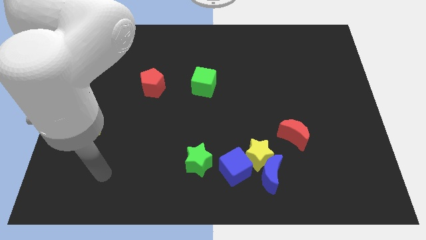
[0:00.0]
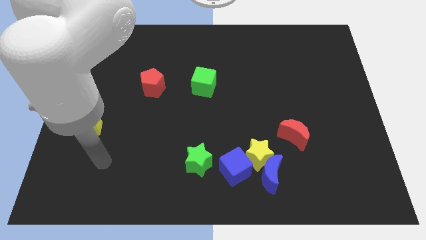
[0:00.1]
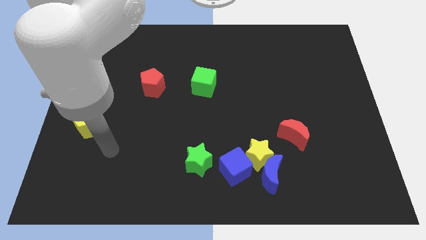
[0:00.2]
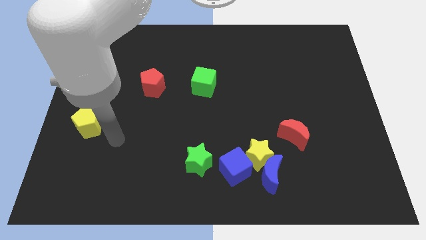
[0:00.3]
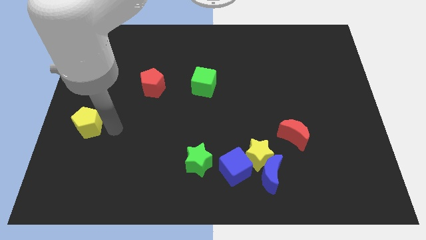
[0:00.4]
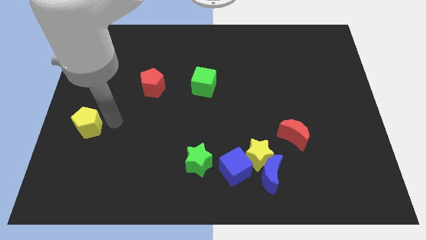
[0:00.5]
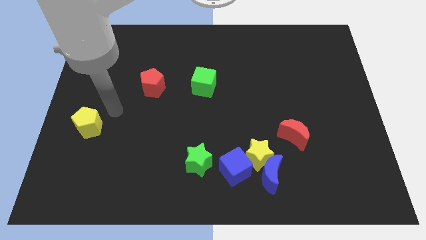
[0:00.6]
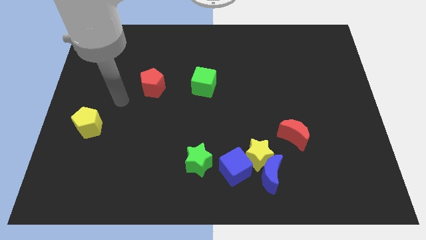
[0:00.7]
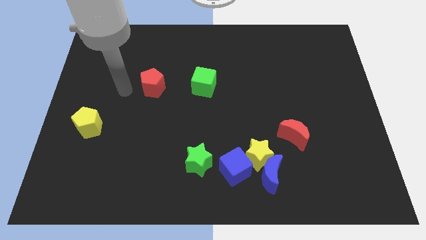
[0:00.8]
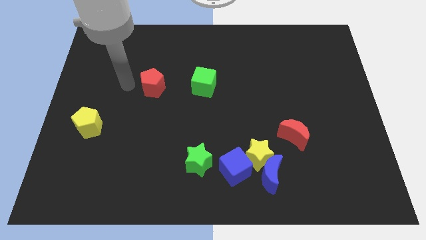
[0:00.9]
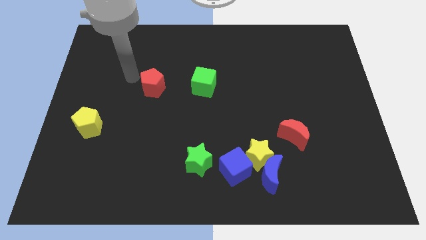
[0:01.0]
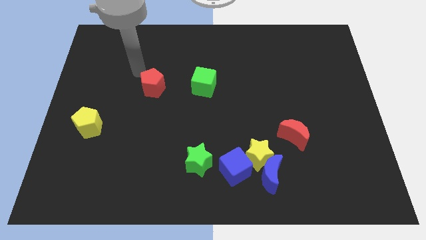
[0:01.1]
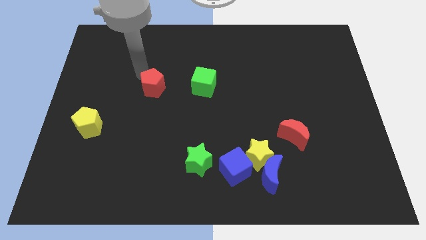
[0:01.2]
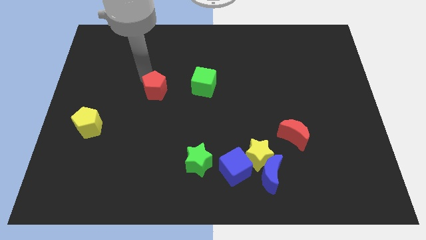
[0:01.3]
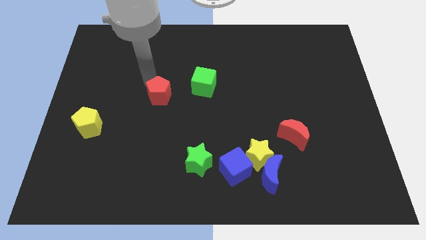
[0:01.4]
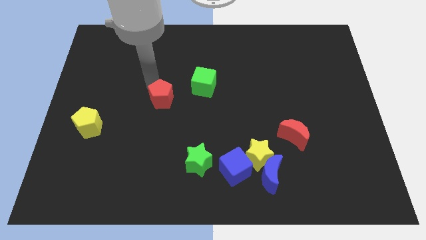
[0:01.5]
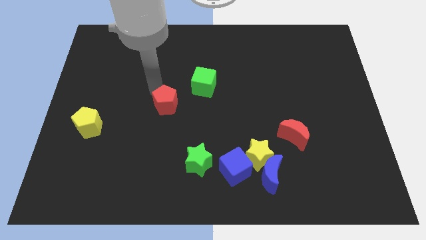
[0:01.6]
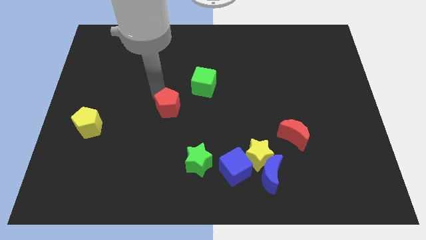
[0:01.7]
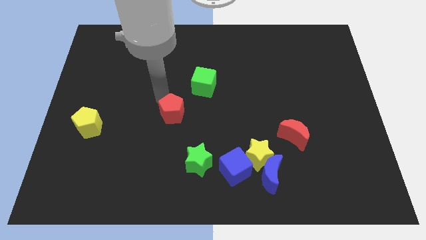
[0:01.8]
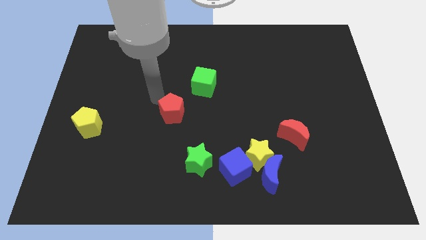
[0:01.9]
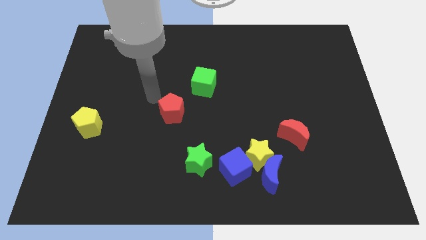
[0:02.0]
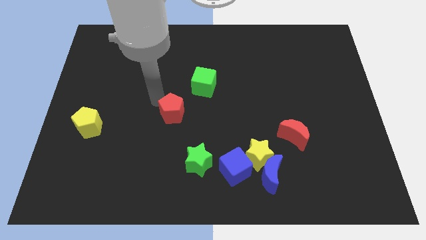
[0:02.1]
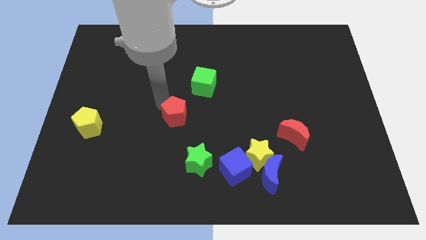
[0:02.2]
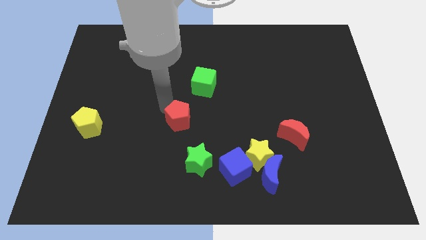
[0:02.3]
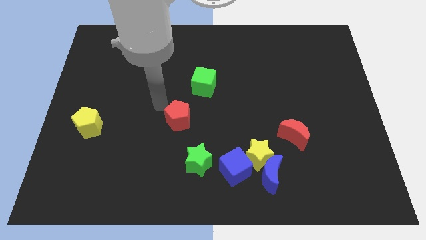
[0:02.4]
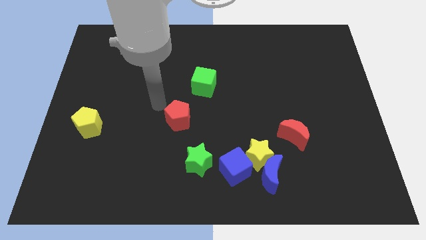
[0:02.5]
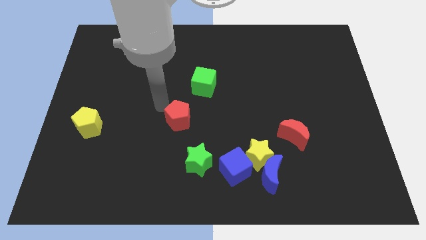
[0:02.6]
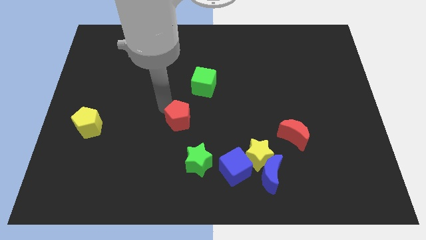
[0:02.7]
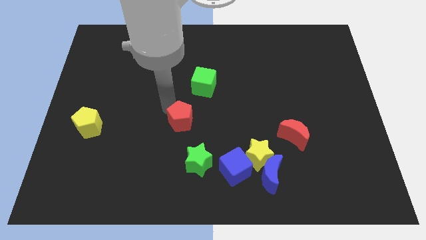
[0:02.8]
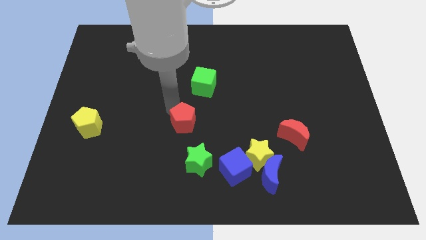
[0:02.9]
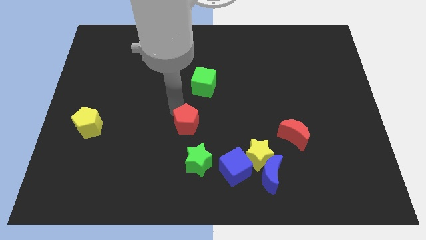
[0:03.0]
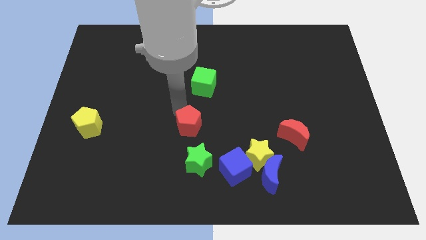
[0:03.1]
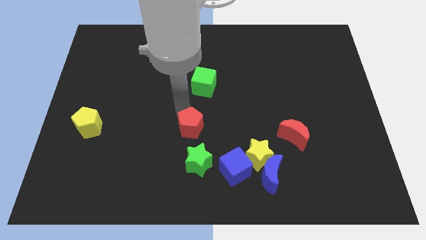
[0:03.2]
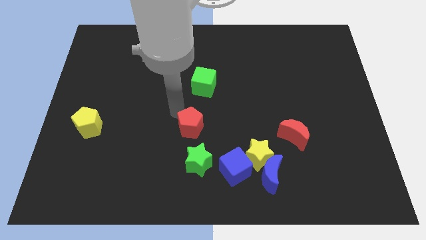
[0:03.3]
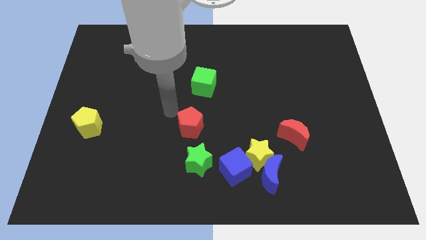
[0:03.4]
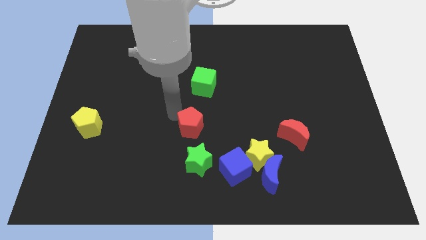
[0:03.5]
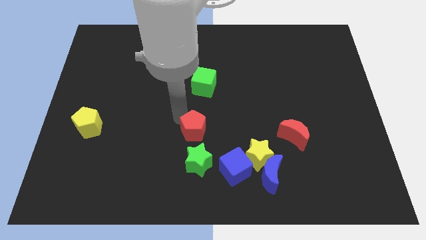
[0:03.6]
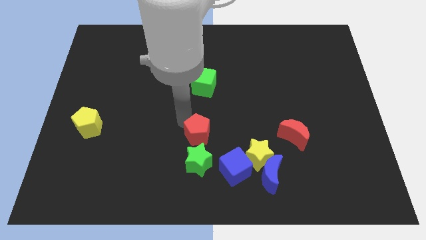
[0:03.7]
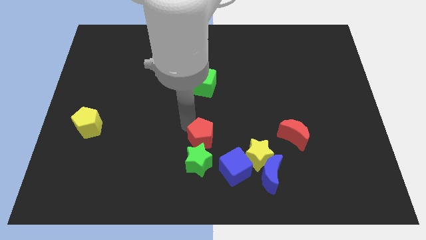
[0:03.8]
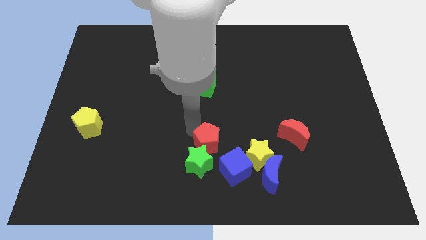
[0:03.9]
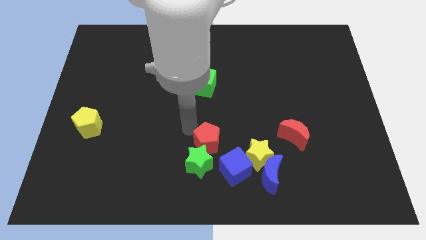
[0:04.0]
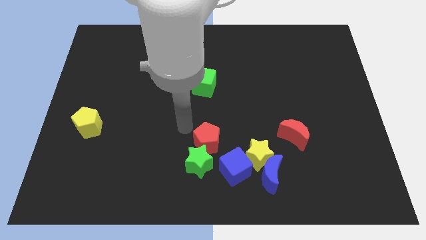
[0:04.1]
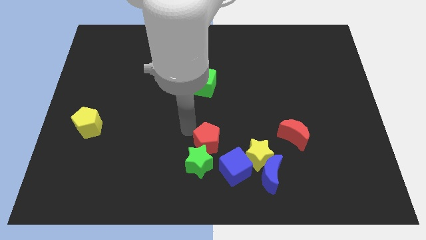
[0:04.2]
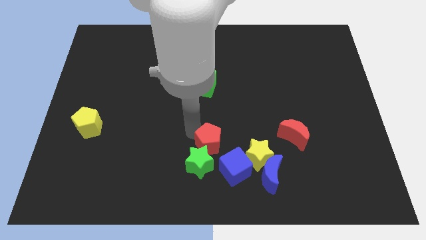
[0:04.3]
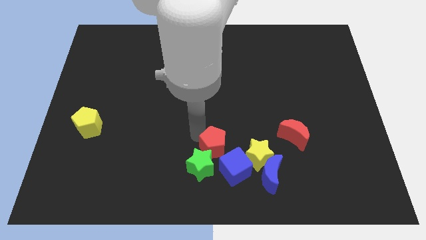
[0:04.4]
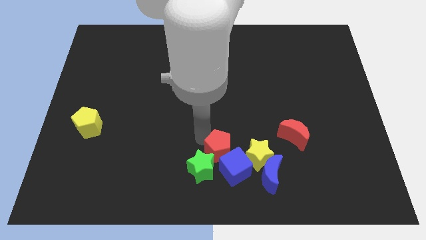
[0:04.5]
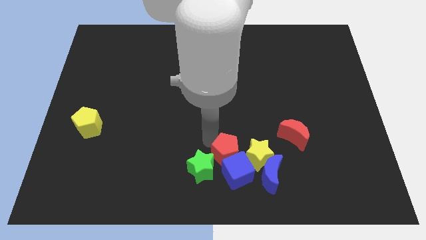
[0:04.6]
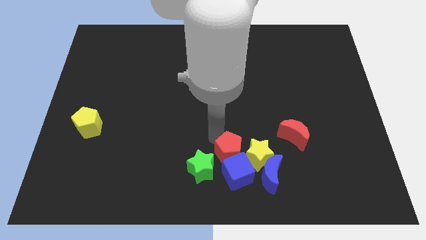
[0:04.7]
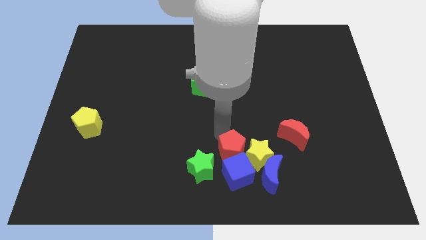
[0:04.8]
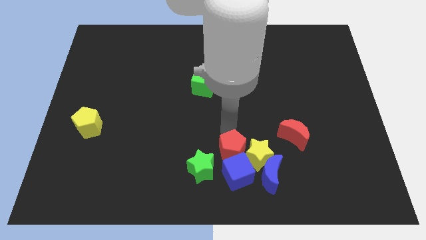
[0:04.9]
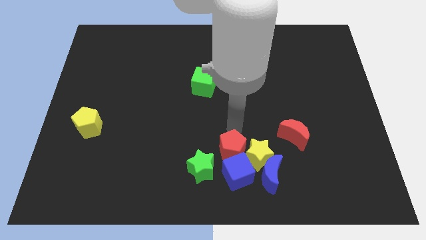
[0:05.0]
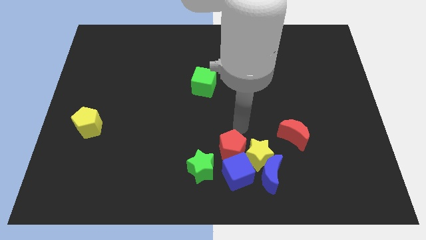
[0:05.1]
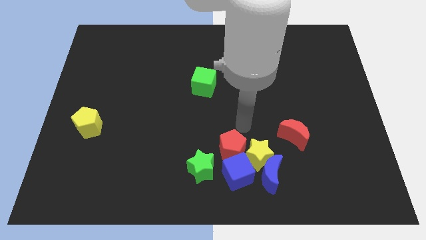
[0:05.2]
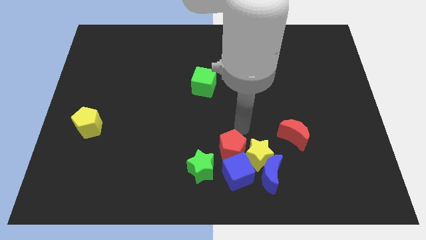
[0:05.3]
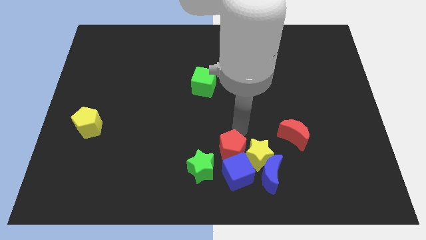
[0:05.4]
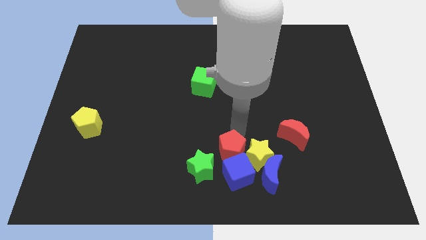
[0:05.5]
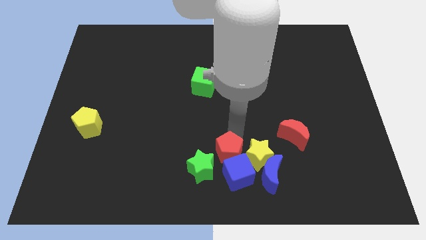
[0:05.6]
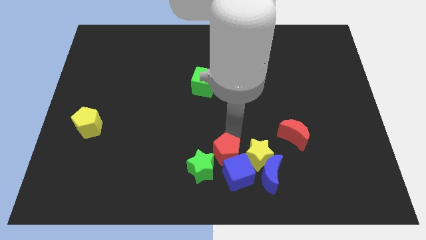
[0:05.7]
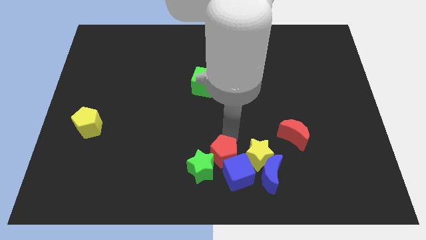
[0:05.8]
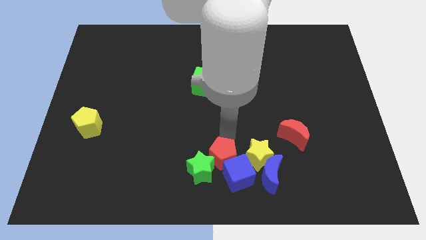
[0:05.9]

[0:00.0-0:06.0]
move the red pentagon to the left side of the blue moon
